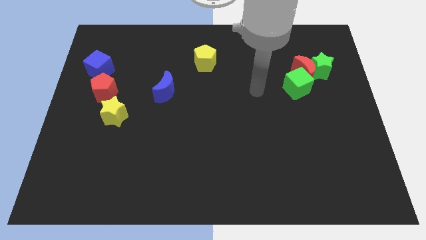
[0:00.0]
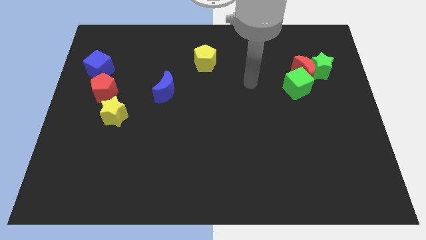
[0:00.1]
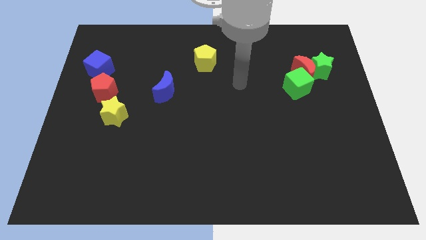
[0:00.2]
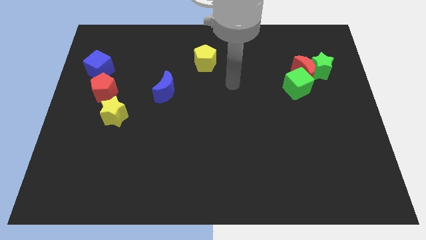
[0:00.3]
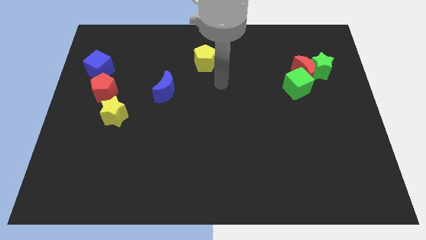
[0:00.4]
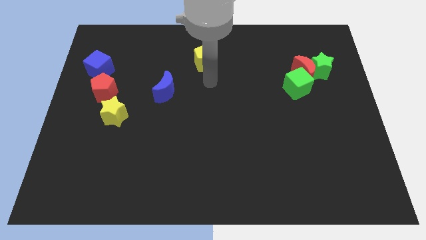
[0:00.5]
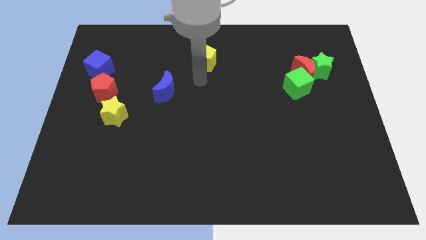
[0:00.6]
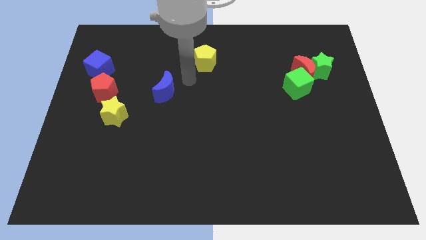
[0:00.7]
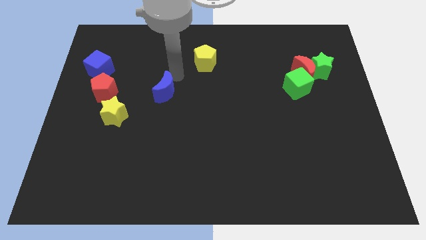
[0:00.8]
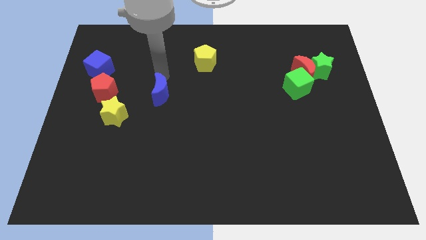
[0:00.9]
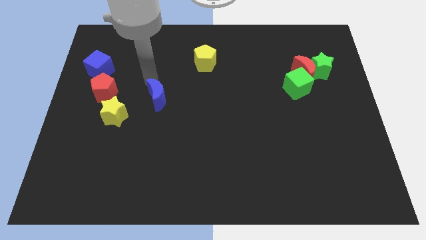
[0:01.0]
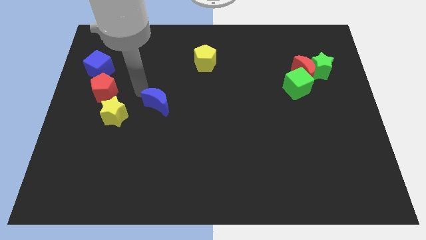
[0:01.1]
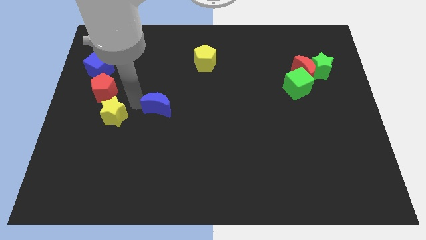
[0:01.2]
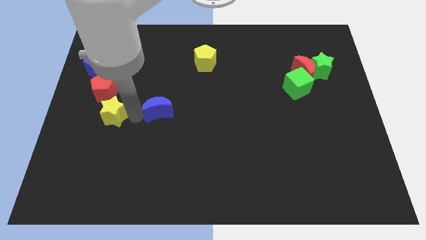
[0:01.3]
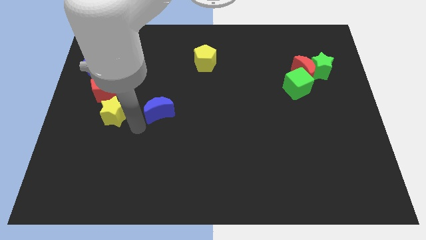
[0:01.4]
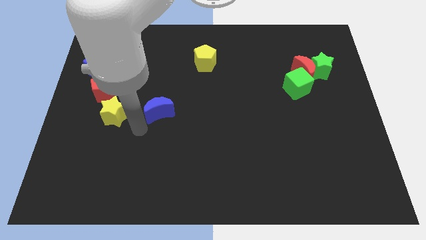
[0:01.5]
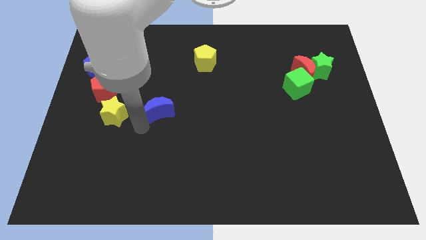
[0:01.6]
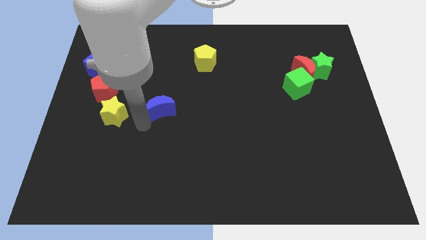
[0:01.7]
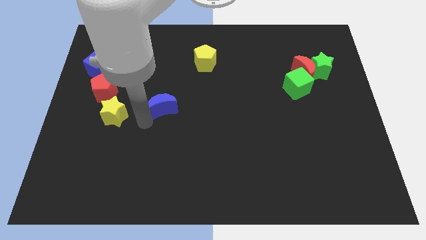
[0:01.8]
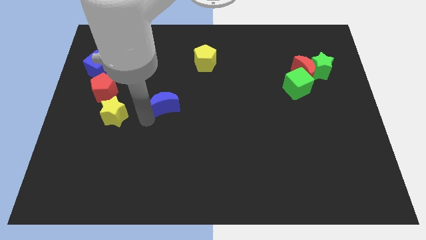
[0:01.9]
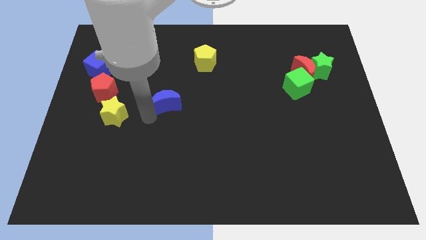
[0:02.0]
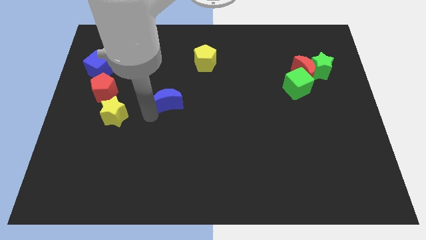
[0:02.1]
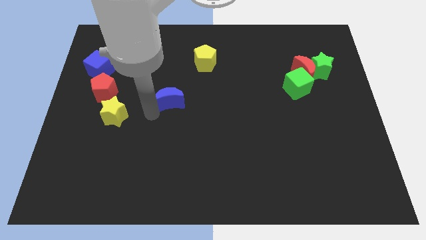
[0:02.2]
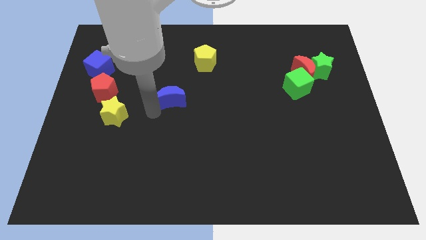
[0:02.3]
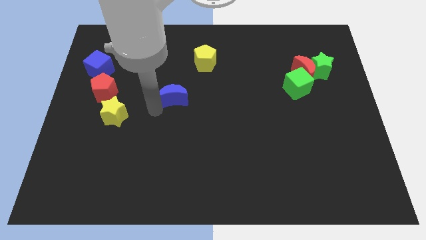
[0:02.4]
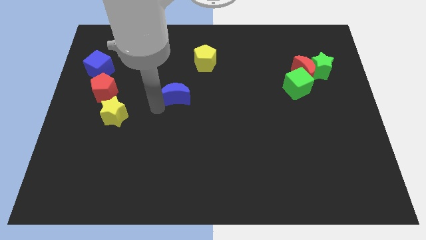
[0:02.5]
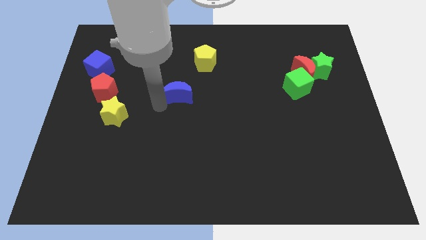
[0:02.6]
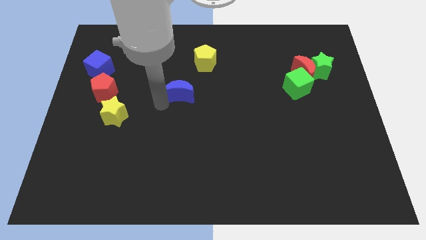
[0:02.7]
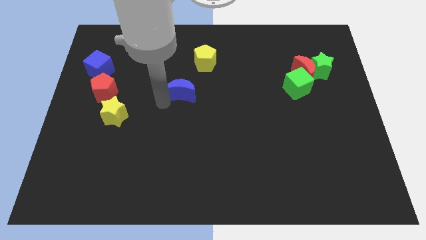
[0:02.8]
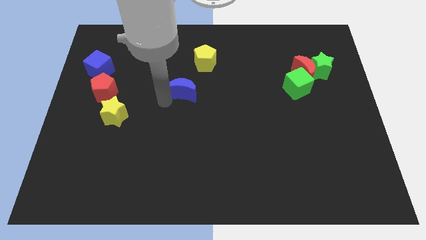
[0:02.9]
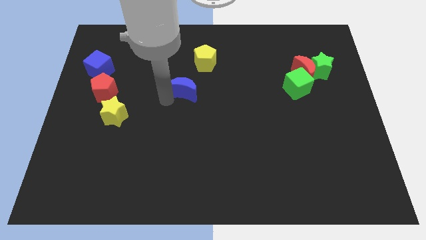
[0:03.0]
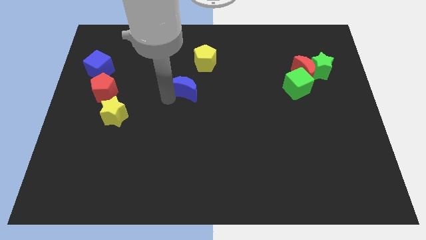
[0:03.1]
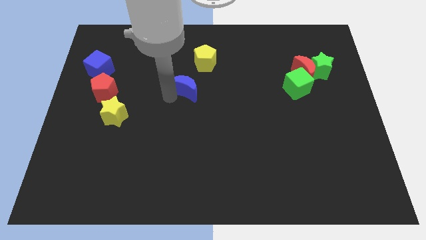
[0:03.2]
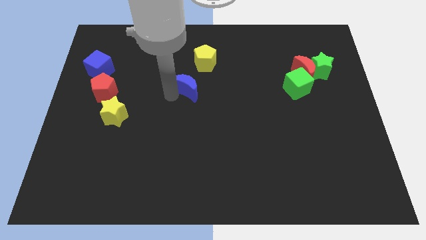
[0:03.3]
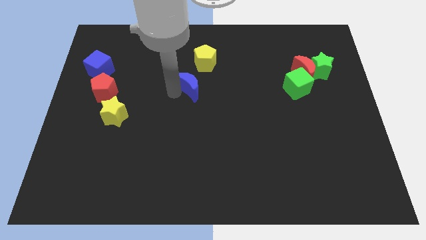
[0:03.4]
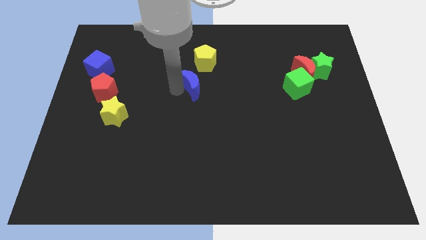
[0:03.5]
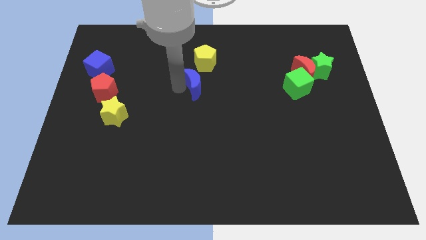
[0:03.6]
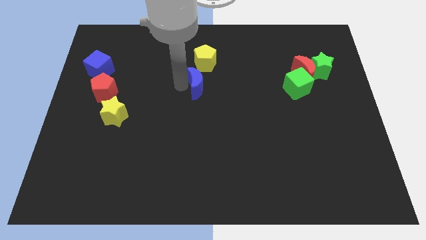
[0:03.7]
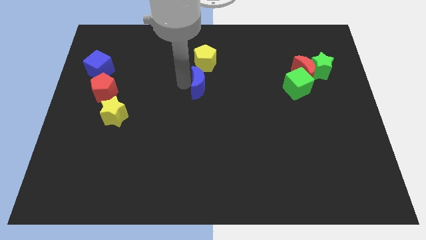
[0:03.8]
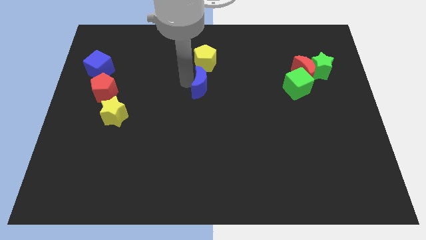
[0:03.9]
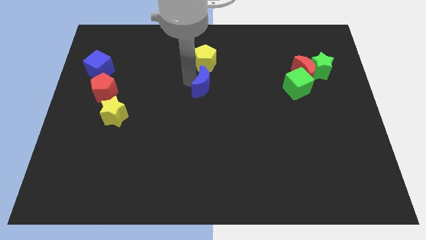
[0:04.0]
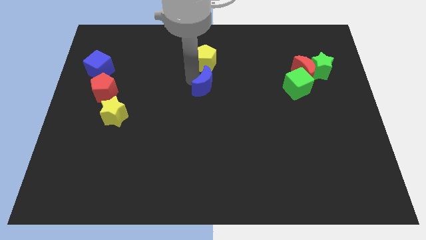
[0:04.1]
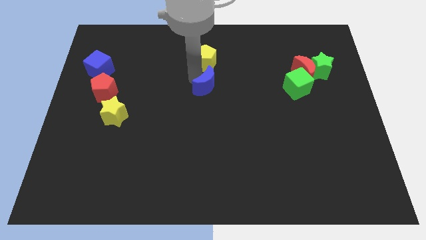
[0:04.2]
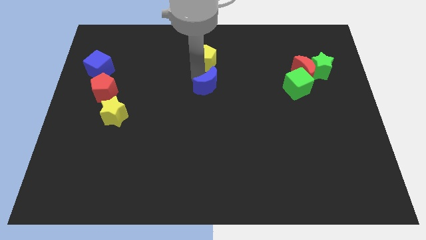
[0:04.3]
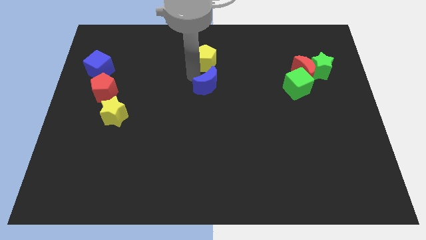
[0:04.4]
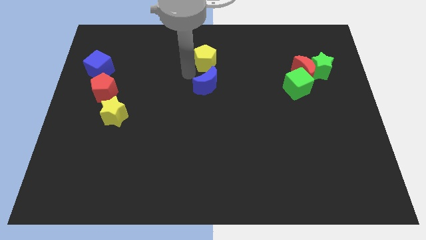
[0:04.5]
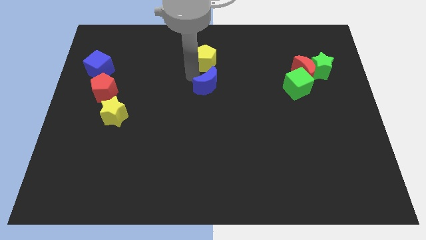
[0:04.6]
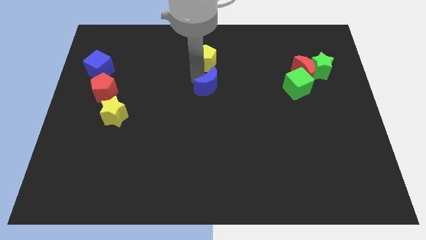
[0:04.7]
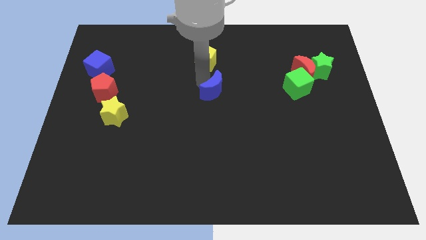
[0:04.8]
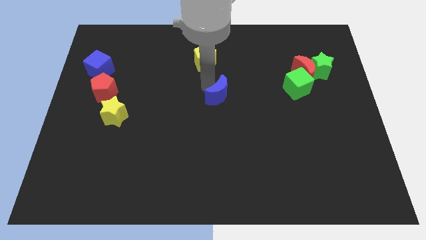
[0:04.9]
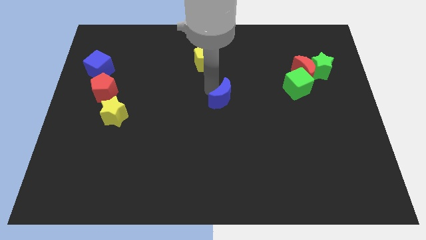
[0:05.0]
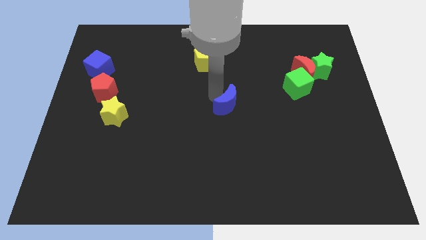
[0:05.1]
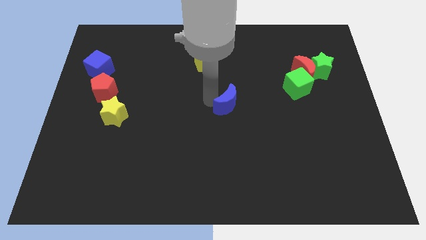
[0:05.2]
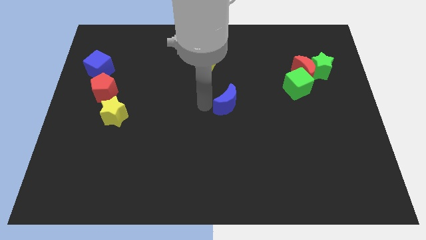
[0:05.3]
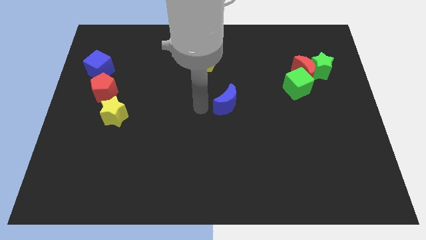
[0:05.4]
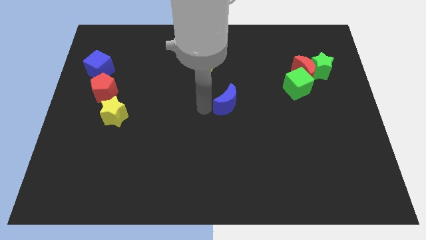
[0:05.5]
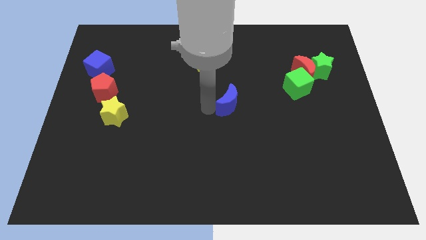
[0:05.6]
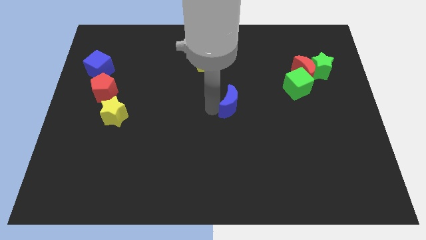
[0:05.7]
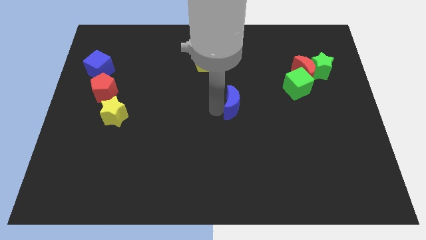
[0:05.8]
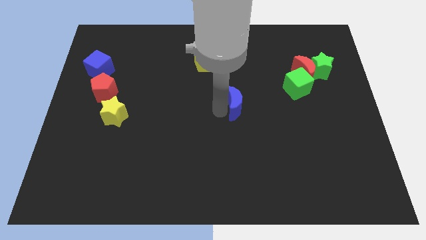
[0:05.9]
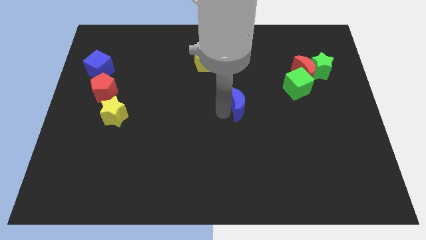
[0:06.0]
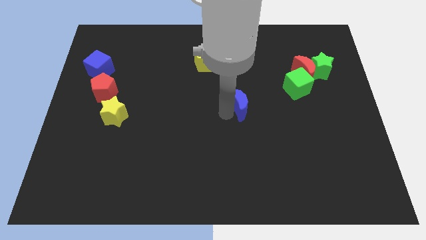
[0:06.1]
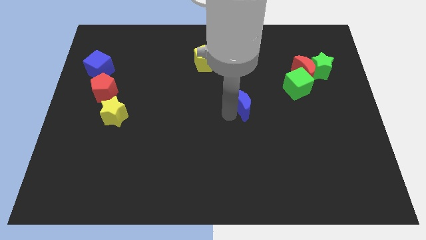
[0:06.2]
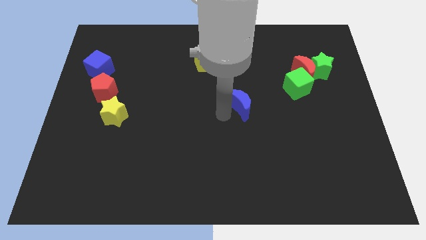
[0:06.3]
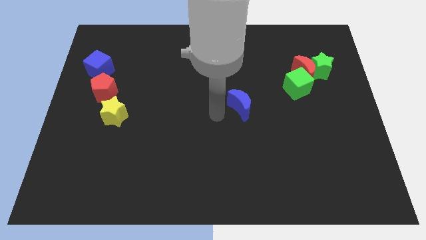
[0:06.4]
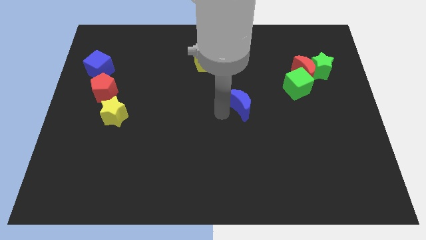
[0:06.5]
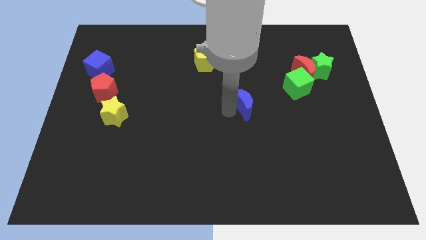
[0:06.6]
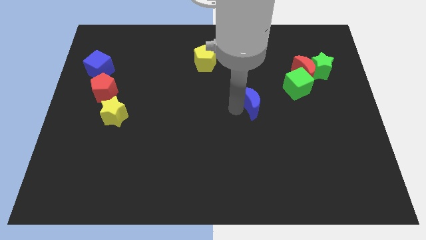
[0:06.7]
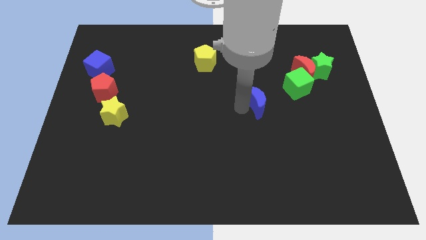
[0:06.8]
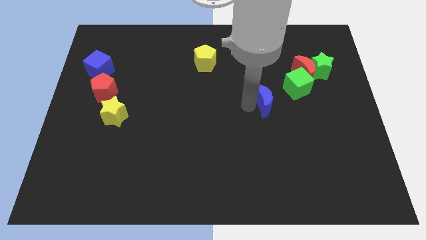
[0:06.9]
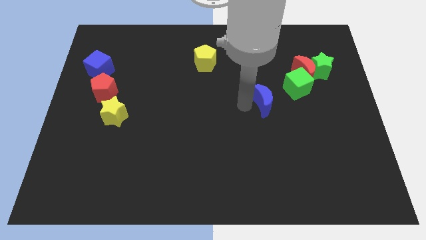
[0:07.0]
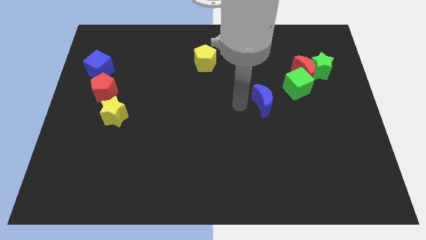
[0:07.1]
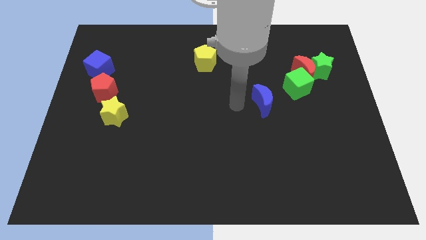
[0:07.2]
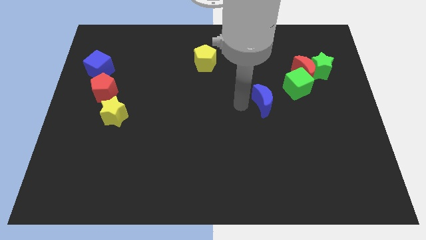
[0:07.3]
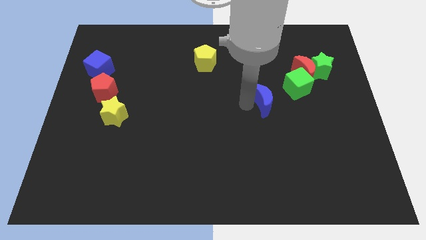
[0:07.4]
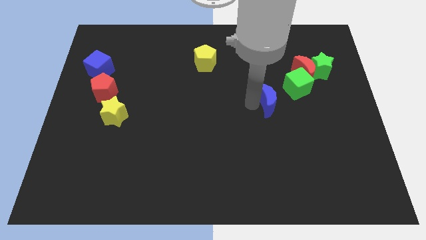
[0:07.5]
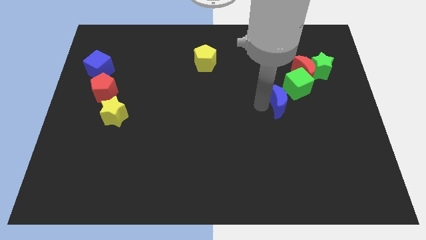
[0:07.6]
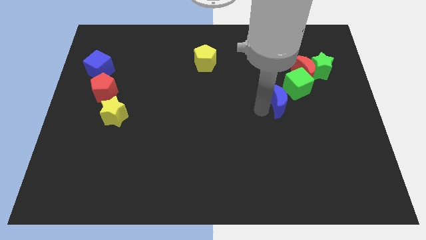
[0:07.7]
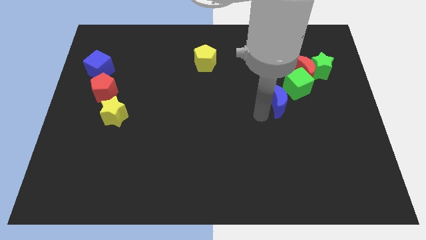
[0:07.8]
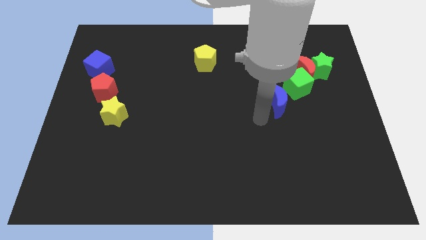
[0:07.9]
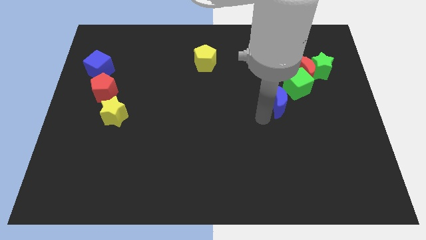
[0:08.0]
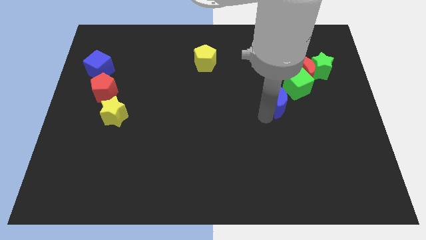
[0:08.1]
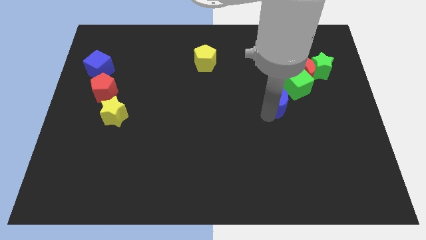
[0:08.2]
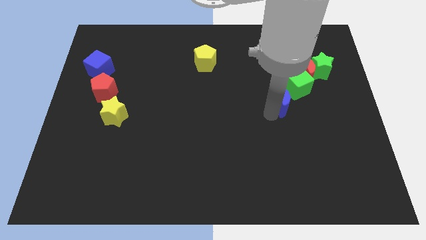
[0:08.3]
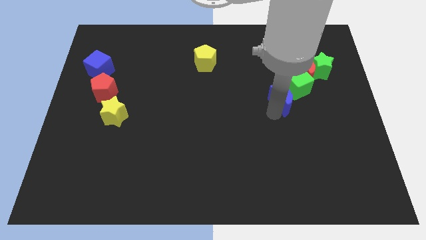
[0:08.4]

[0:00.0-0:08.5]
put the blue moon to the green cube
